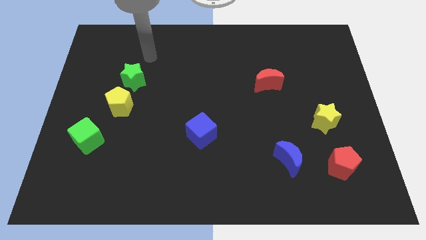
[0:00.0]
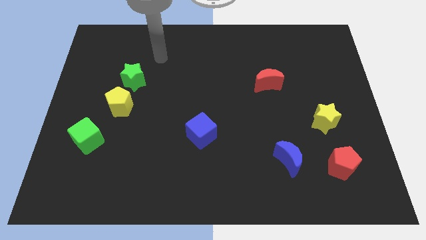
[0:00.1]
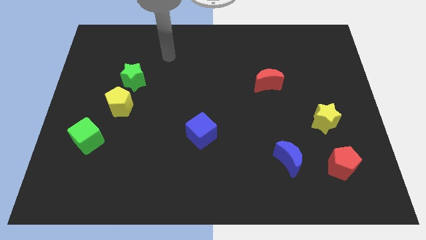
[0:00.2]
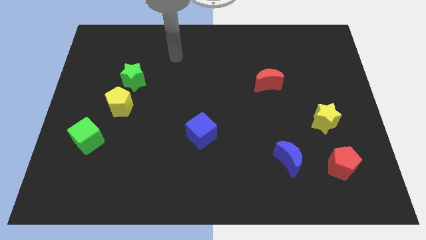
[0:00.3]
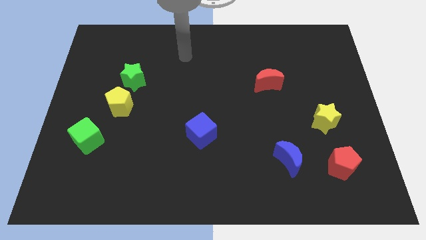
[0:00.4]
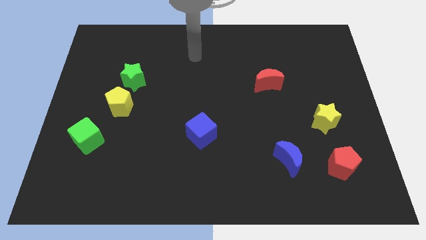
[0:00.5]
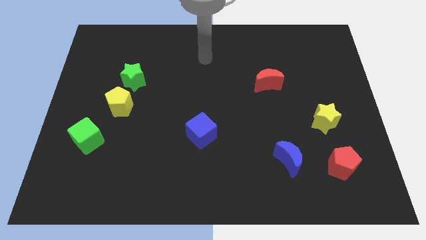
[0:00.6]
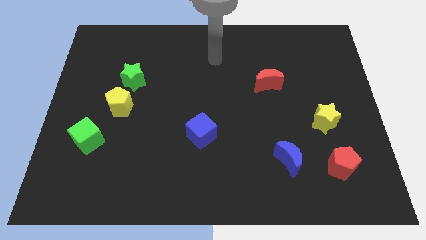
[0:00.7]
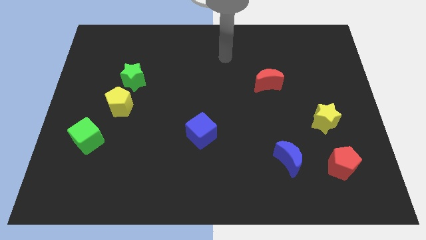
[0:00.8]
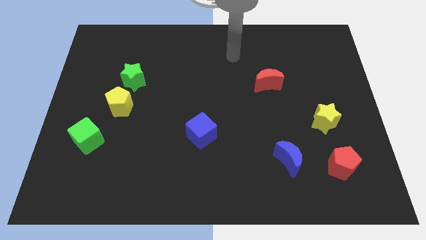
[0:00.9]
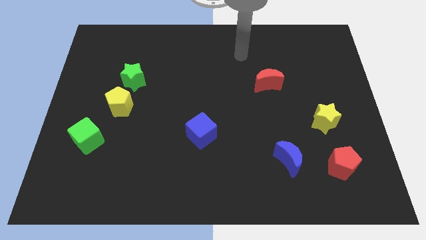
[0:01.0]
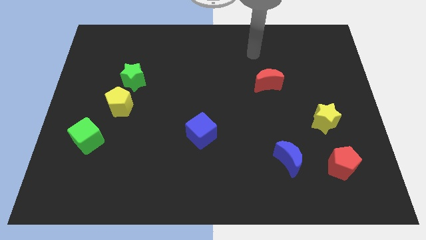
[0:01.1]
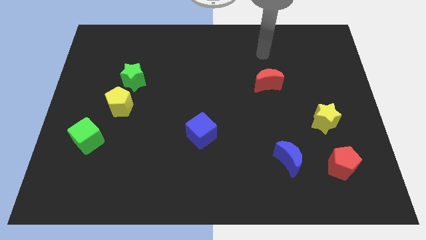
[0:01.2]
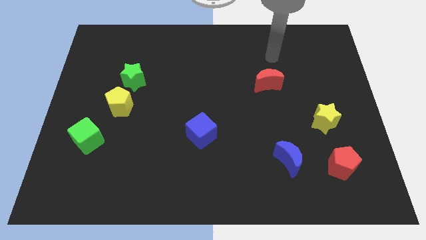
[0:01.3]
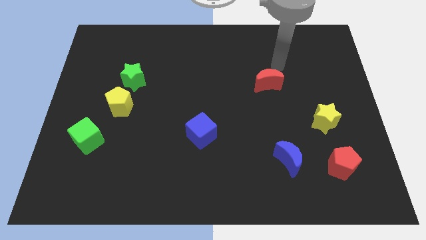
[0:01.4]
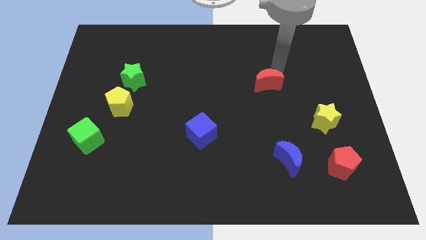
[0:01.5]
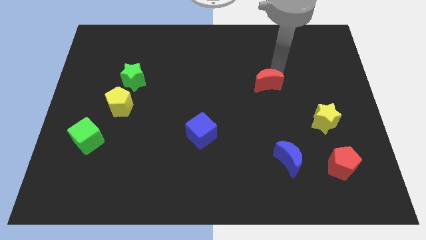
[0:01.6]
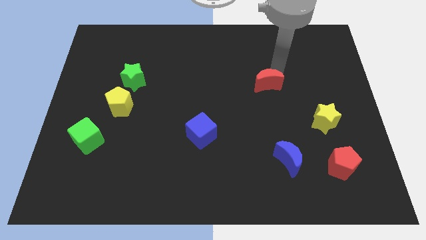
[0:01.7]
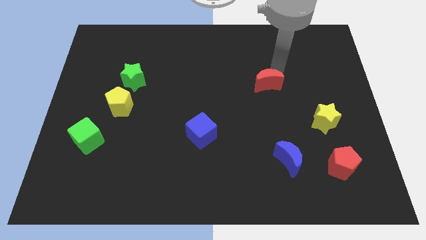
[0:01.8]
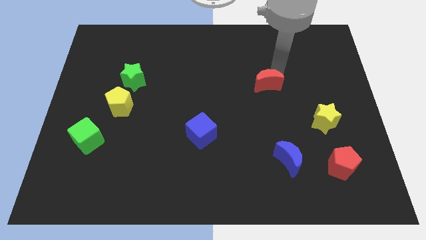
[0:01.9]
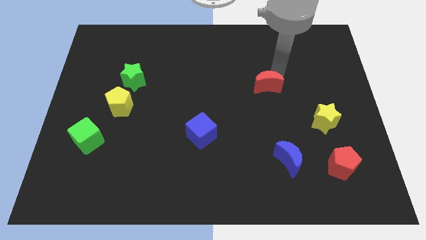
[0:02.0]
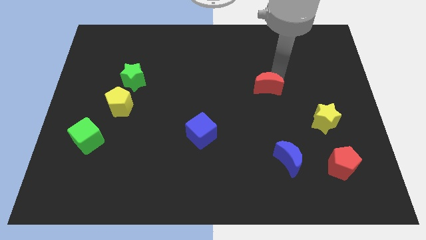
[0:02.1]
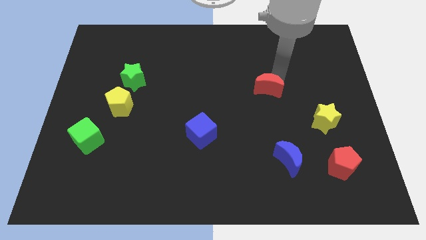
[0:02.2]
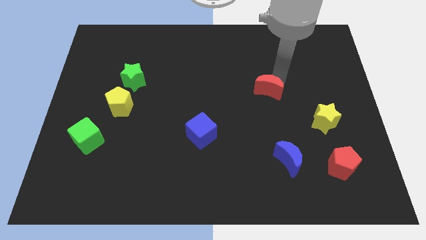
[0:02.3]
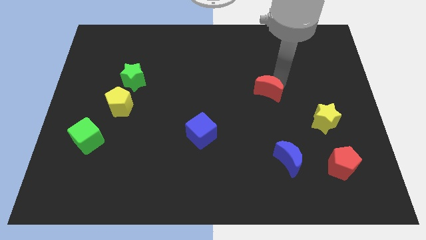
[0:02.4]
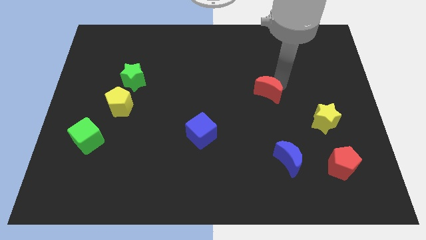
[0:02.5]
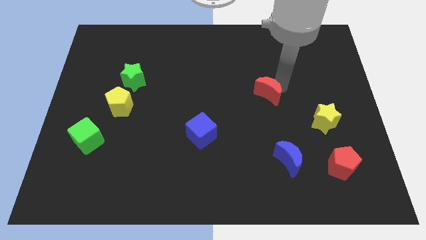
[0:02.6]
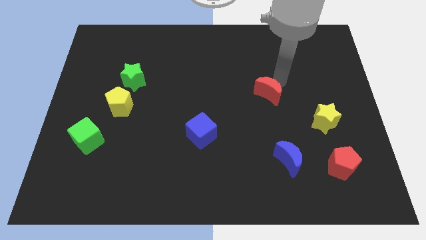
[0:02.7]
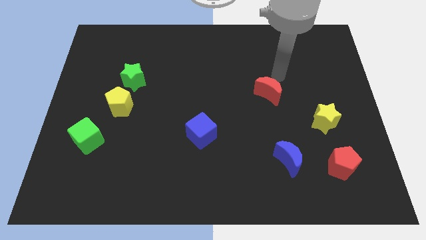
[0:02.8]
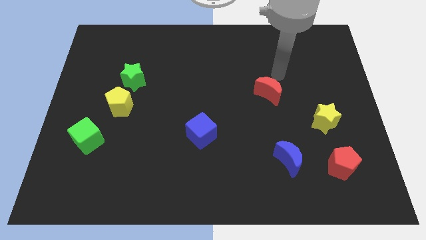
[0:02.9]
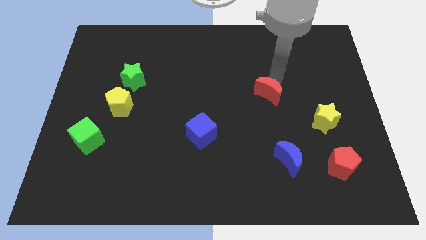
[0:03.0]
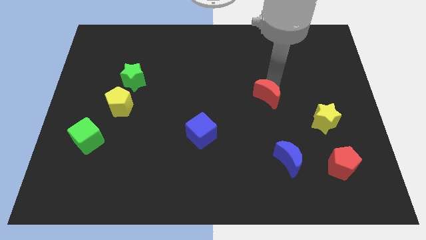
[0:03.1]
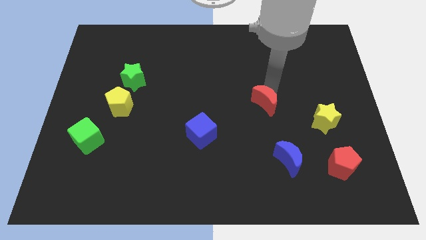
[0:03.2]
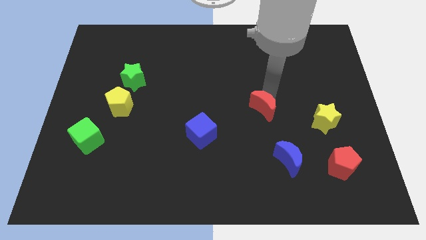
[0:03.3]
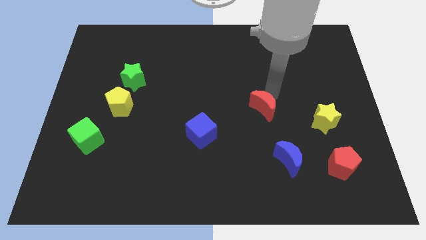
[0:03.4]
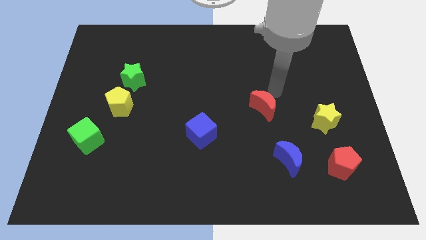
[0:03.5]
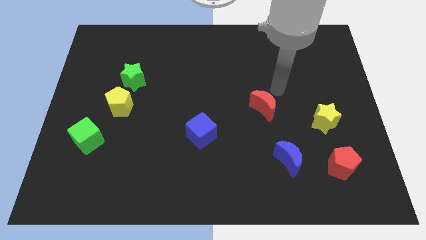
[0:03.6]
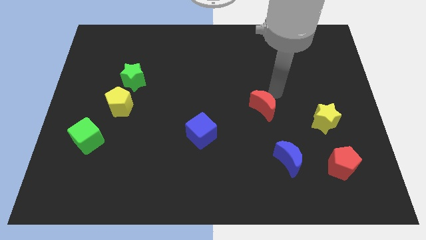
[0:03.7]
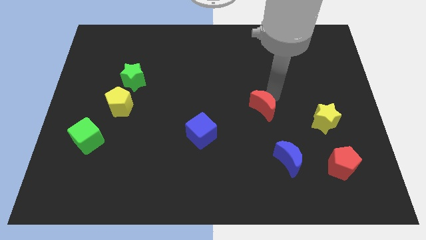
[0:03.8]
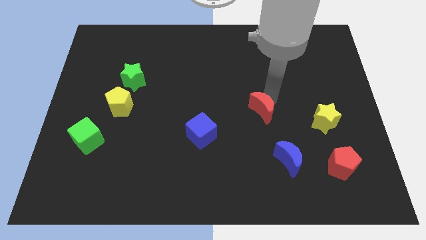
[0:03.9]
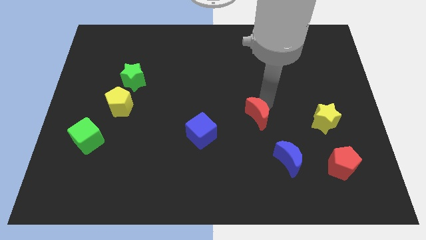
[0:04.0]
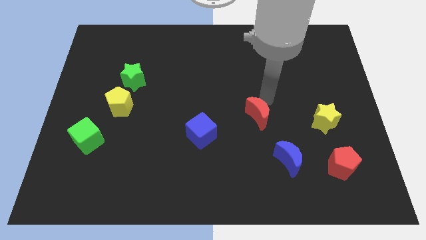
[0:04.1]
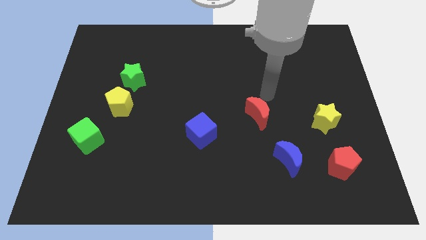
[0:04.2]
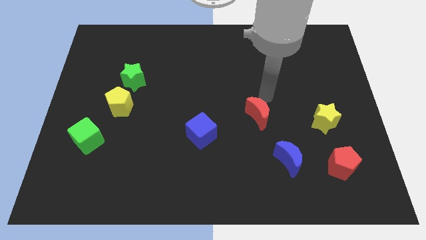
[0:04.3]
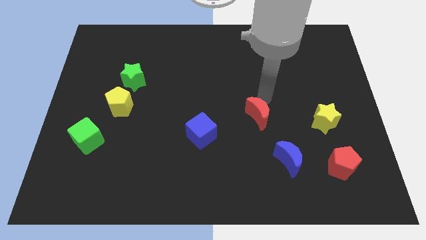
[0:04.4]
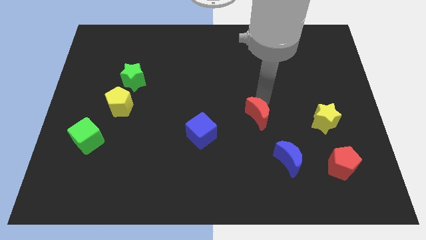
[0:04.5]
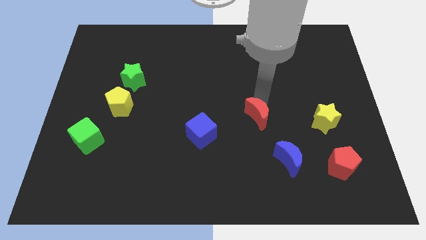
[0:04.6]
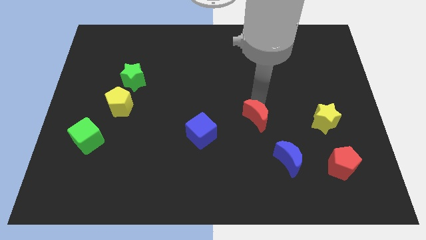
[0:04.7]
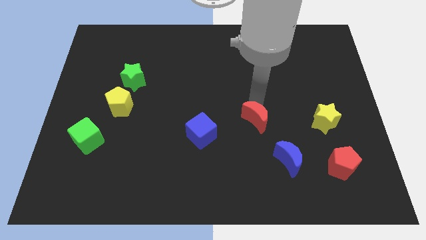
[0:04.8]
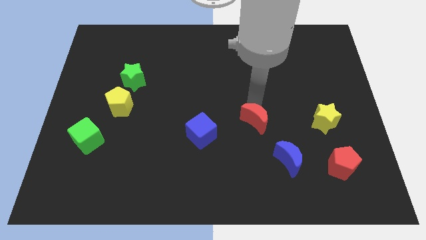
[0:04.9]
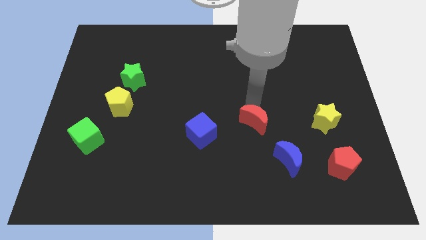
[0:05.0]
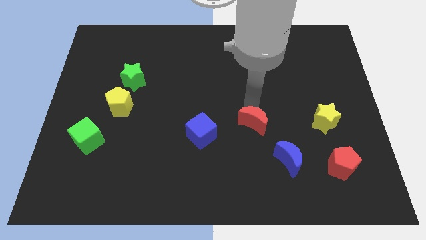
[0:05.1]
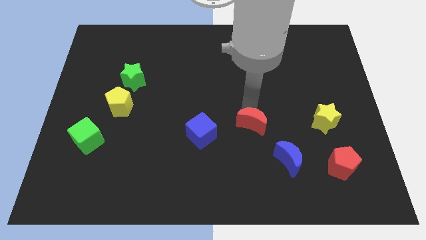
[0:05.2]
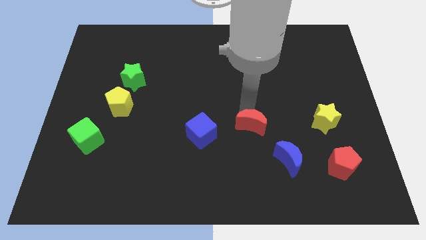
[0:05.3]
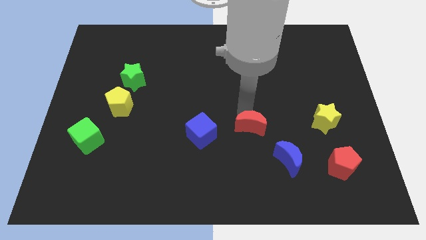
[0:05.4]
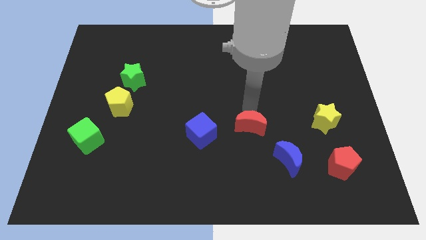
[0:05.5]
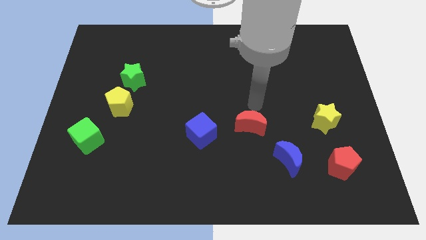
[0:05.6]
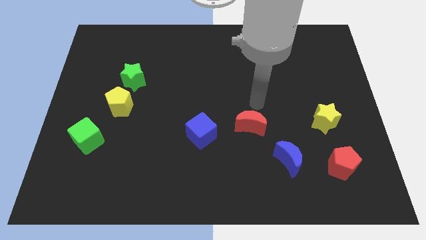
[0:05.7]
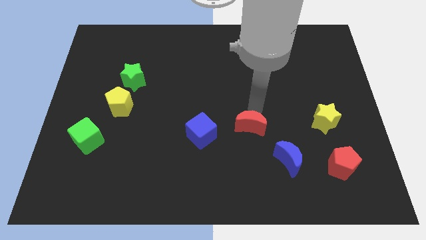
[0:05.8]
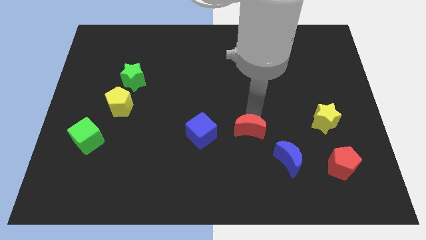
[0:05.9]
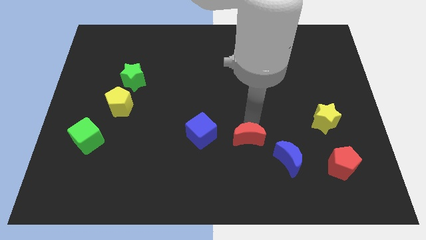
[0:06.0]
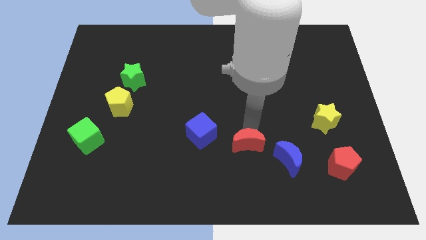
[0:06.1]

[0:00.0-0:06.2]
move the red moon to the left of the blue moon
